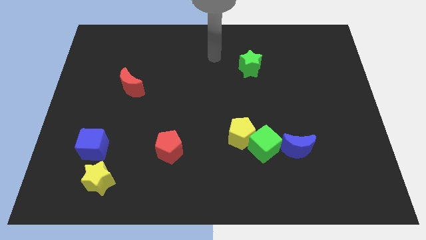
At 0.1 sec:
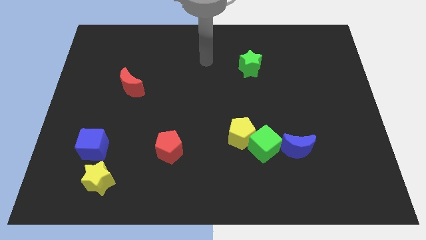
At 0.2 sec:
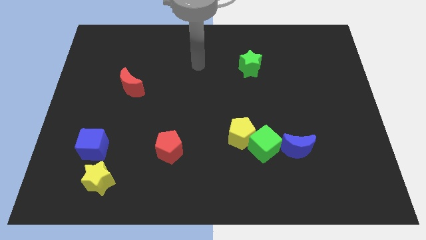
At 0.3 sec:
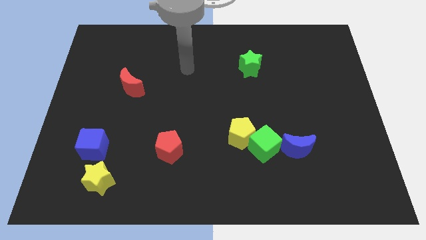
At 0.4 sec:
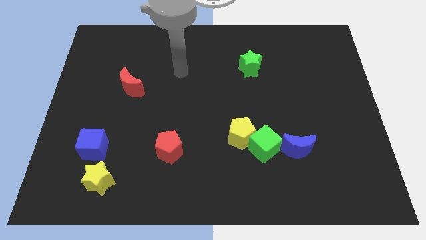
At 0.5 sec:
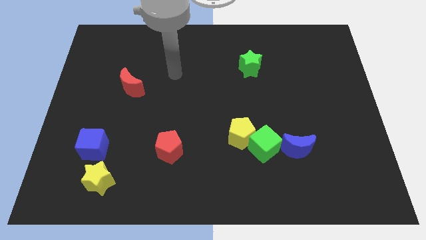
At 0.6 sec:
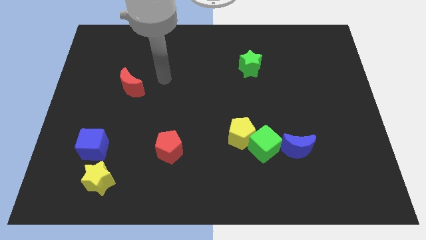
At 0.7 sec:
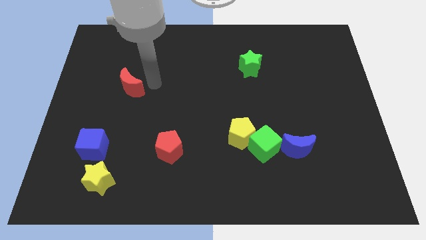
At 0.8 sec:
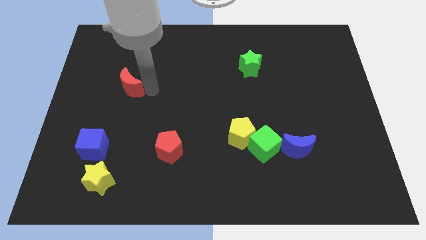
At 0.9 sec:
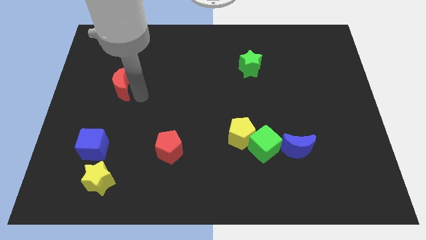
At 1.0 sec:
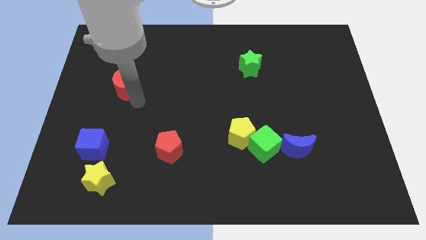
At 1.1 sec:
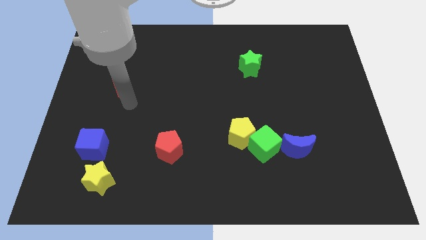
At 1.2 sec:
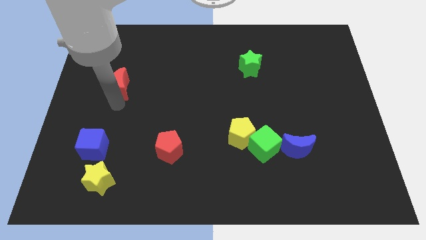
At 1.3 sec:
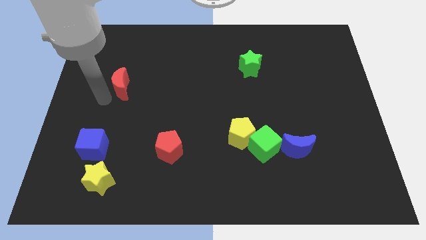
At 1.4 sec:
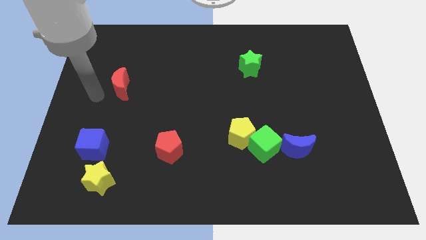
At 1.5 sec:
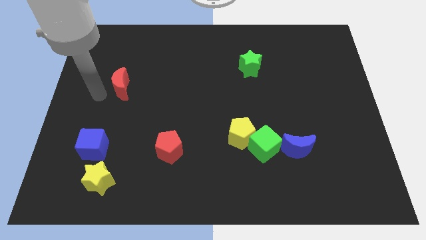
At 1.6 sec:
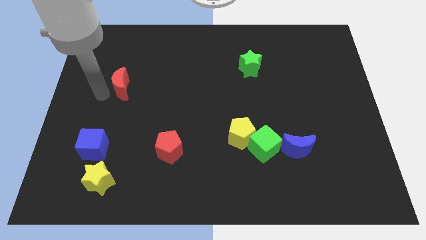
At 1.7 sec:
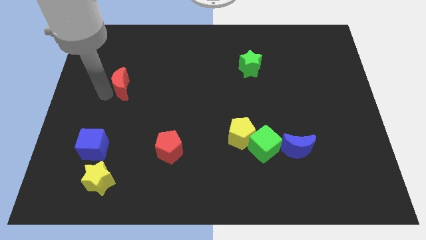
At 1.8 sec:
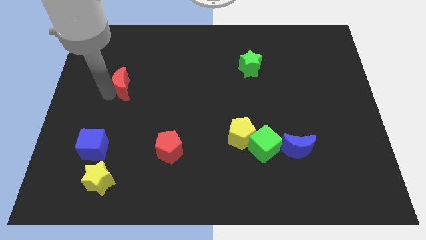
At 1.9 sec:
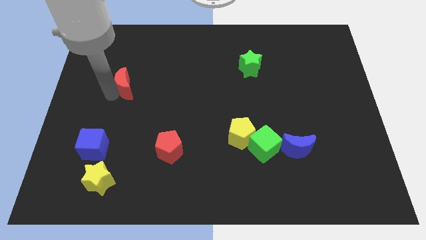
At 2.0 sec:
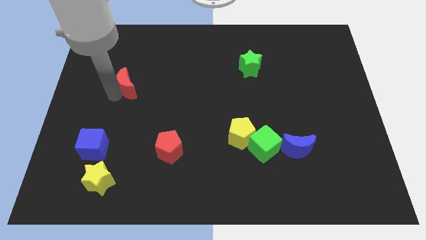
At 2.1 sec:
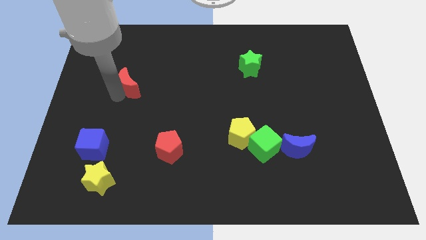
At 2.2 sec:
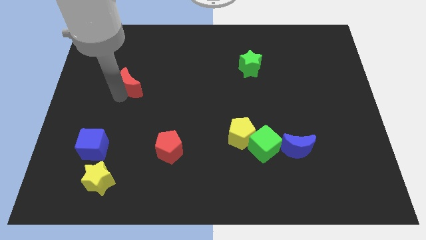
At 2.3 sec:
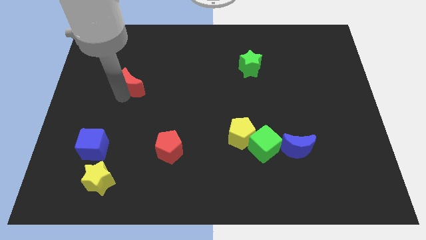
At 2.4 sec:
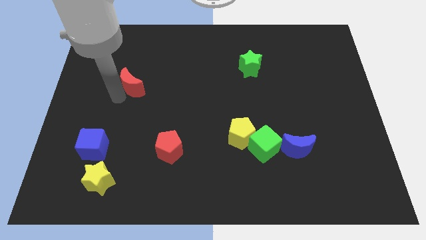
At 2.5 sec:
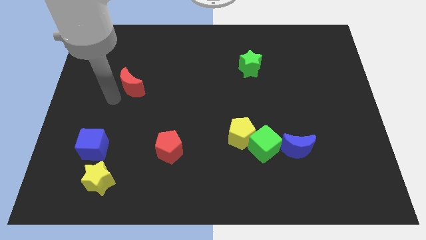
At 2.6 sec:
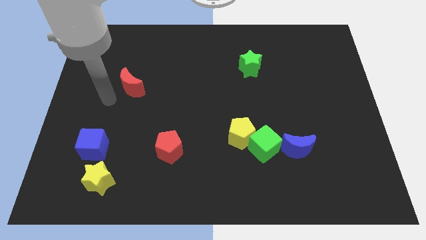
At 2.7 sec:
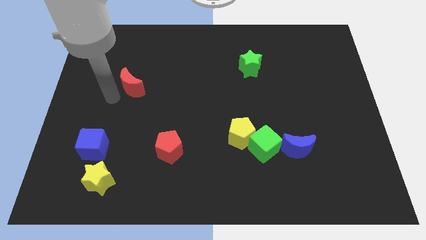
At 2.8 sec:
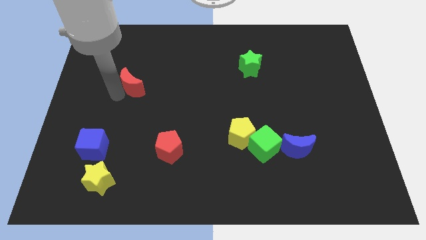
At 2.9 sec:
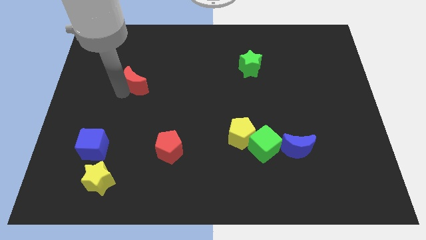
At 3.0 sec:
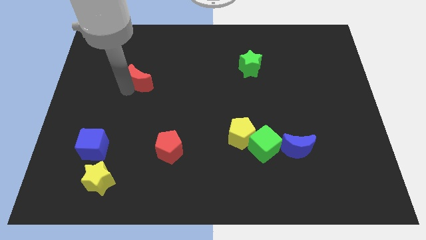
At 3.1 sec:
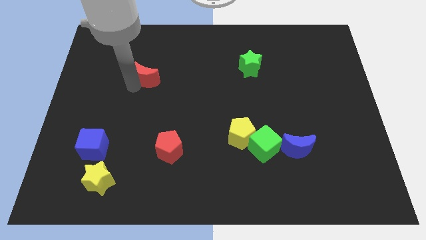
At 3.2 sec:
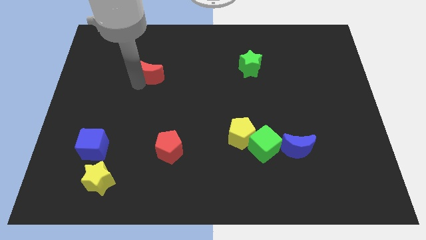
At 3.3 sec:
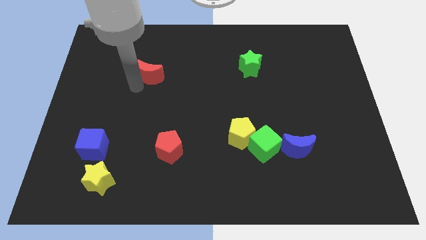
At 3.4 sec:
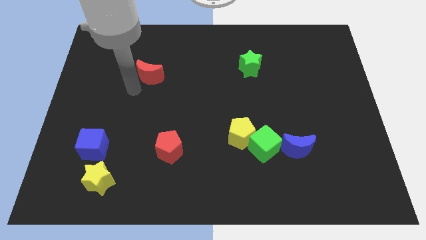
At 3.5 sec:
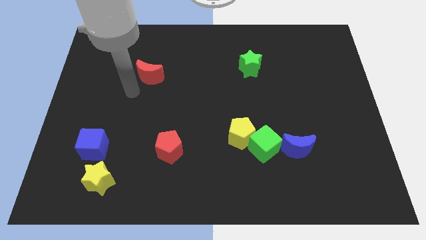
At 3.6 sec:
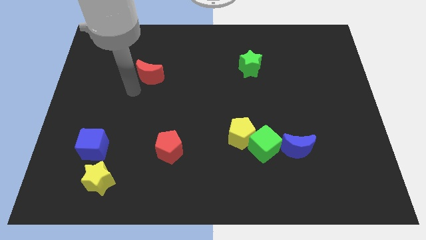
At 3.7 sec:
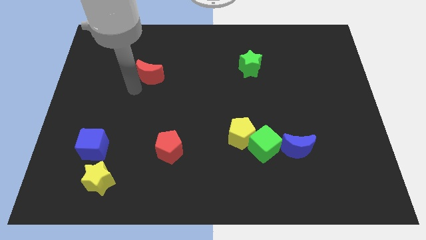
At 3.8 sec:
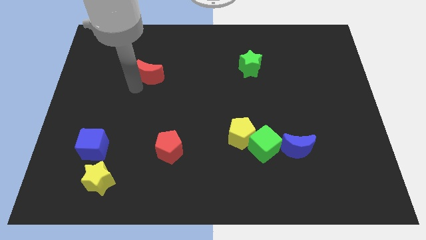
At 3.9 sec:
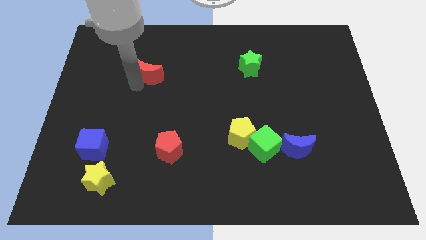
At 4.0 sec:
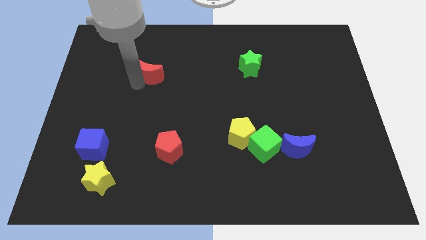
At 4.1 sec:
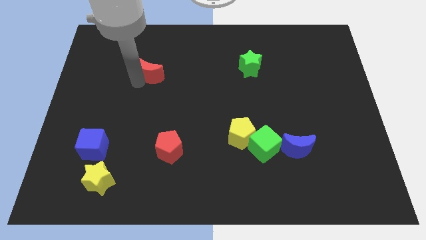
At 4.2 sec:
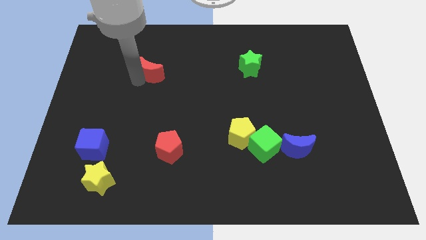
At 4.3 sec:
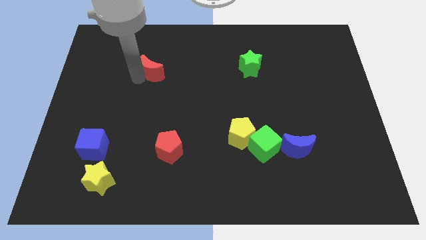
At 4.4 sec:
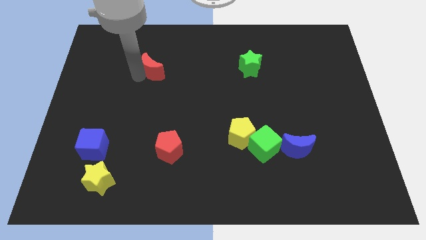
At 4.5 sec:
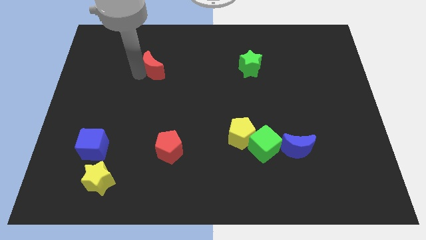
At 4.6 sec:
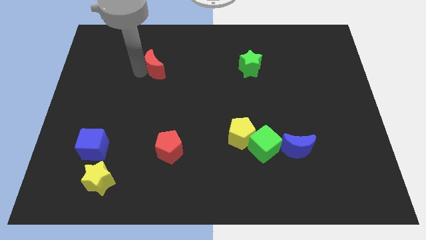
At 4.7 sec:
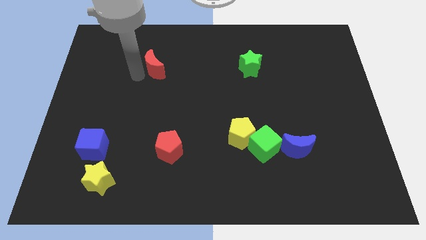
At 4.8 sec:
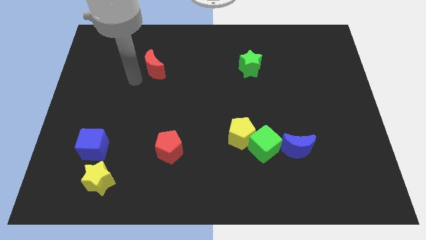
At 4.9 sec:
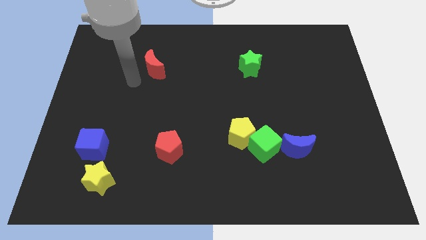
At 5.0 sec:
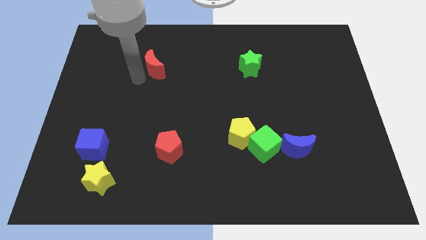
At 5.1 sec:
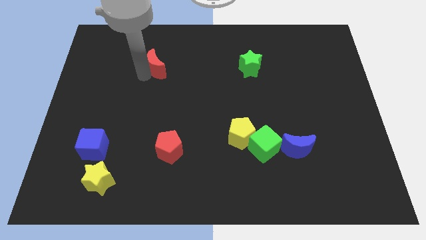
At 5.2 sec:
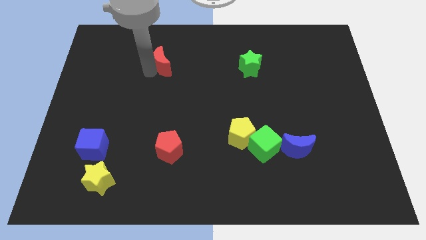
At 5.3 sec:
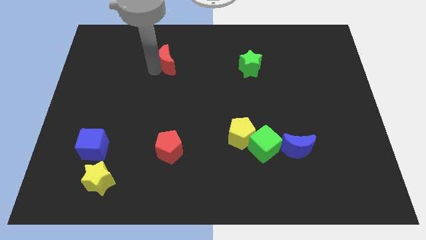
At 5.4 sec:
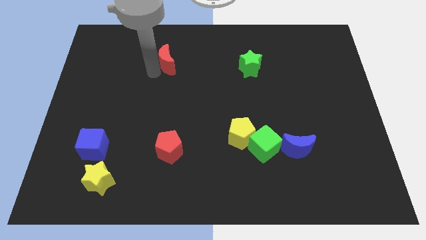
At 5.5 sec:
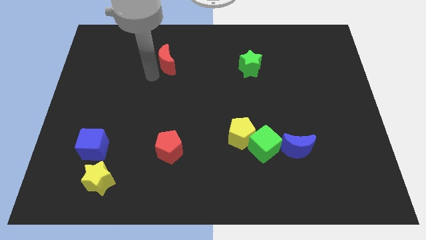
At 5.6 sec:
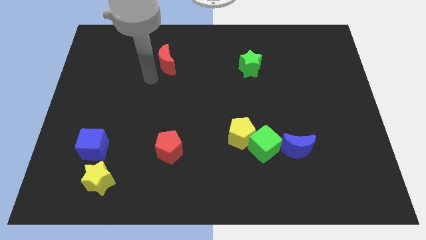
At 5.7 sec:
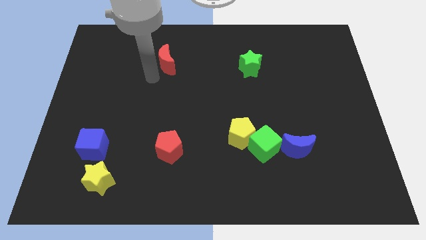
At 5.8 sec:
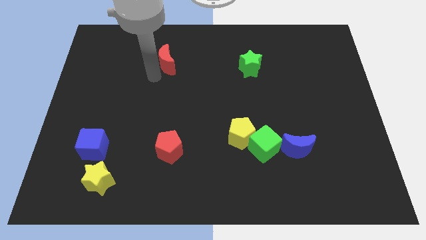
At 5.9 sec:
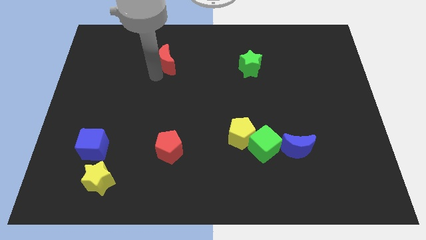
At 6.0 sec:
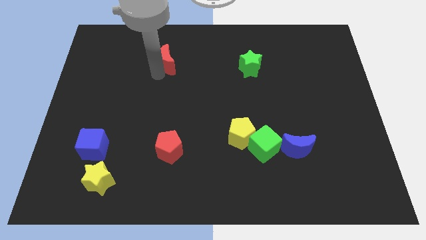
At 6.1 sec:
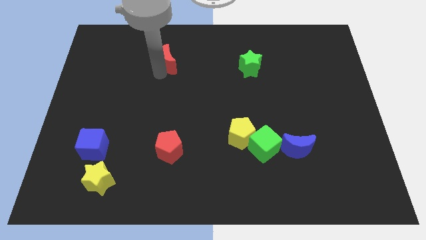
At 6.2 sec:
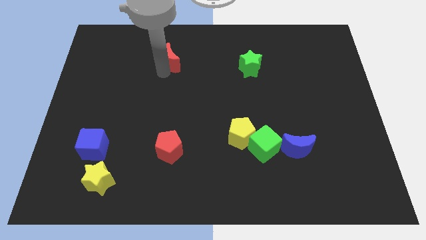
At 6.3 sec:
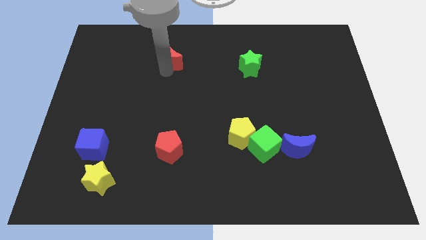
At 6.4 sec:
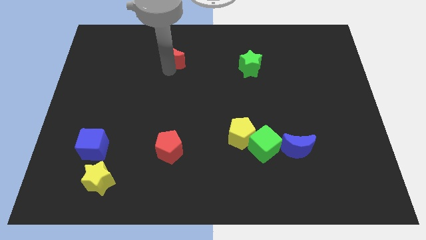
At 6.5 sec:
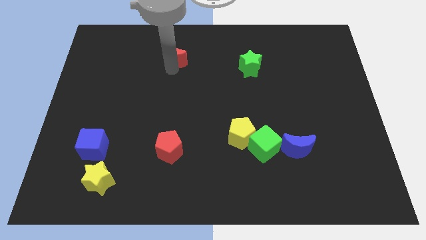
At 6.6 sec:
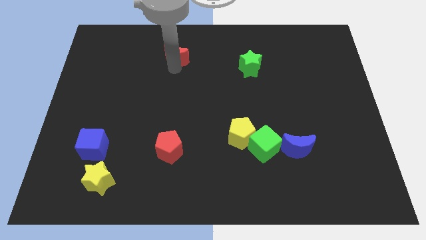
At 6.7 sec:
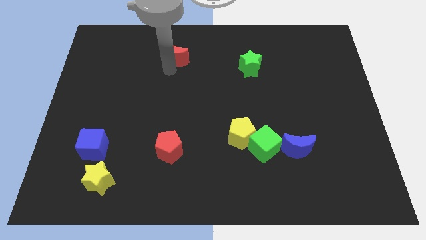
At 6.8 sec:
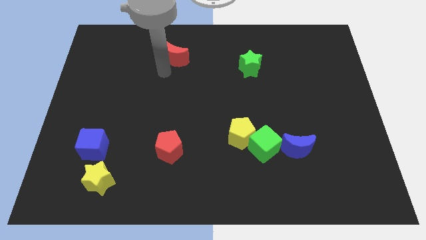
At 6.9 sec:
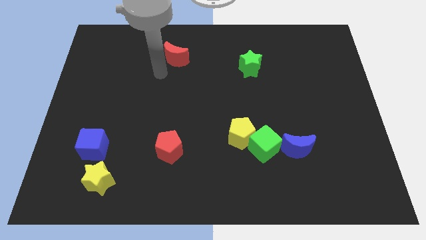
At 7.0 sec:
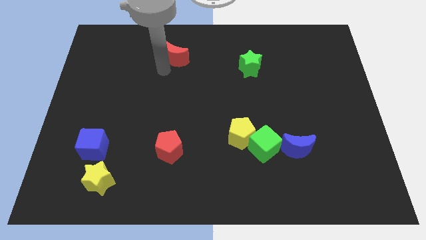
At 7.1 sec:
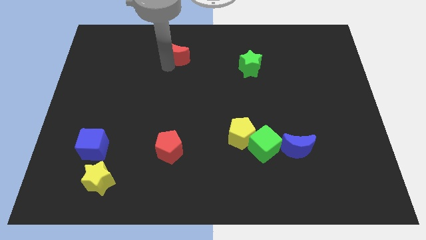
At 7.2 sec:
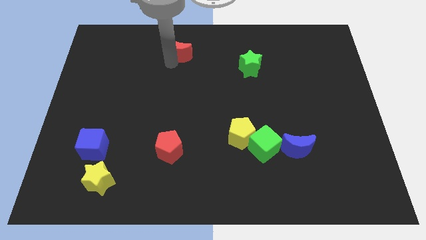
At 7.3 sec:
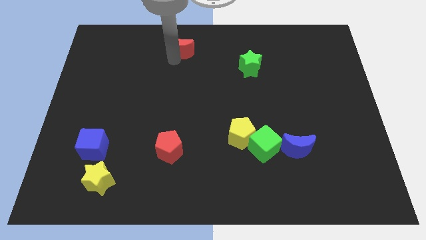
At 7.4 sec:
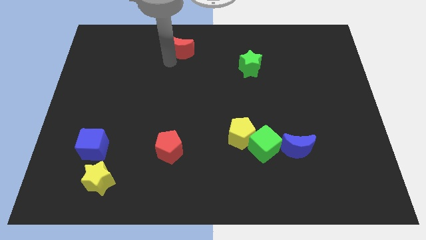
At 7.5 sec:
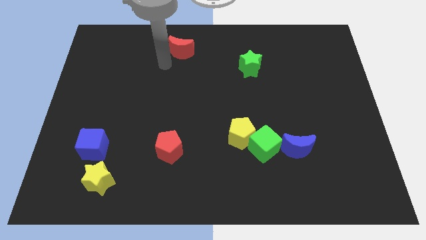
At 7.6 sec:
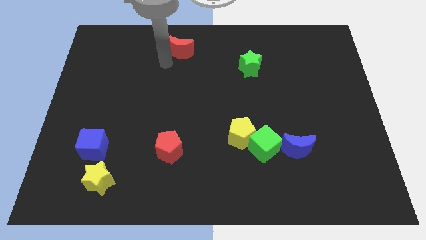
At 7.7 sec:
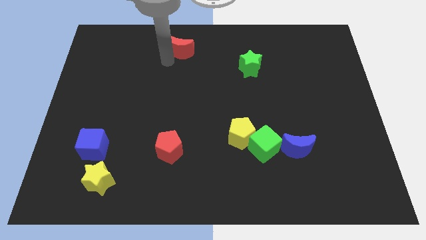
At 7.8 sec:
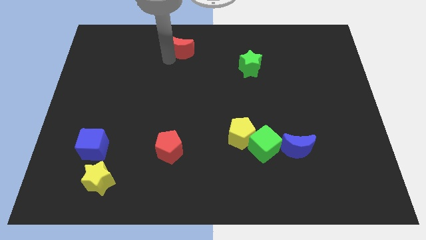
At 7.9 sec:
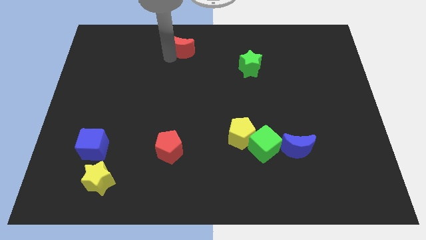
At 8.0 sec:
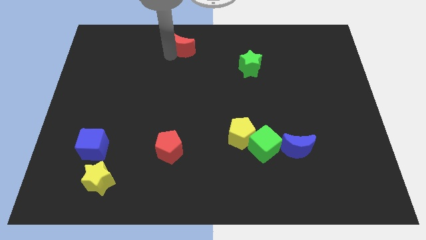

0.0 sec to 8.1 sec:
move the red moon to the top side
